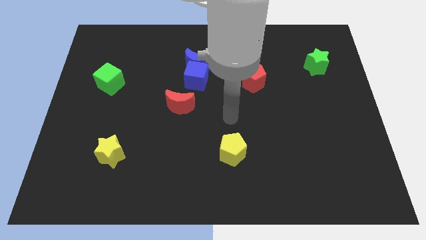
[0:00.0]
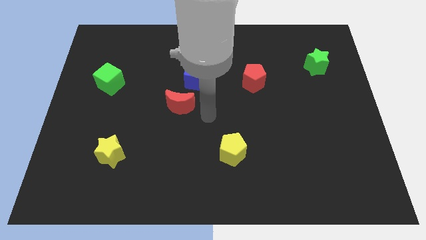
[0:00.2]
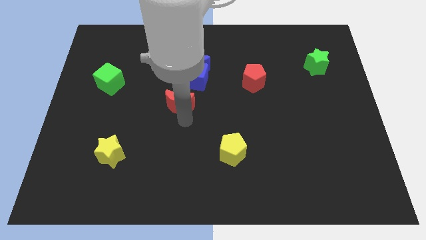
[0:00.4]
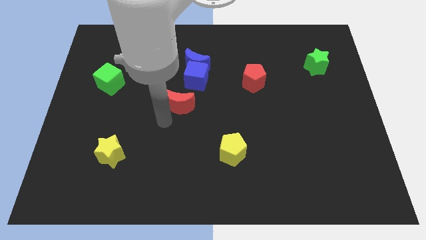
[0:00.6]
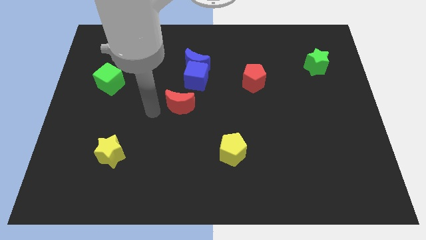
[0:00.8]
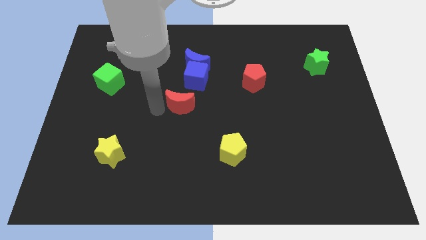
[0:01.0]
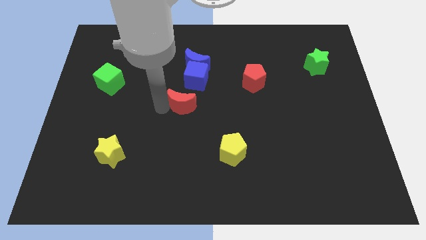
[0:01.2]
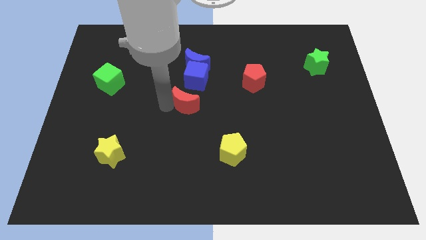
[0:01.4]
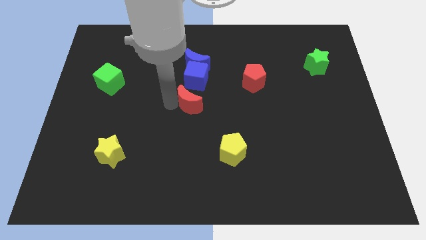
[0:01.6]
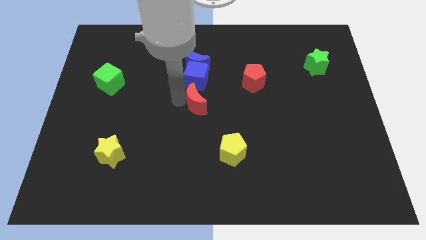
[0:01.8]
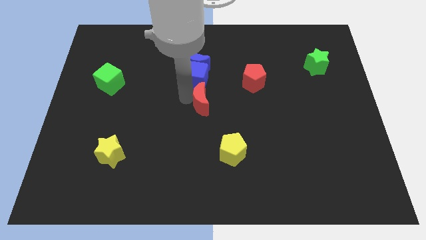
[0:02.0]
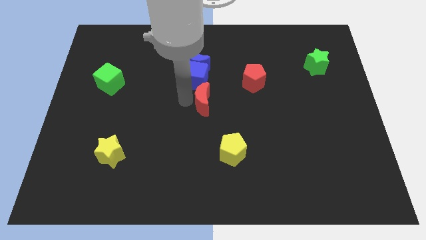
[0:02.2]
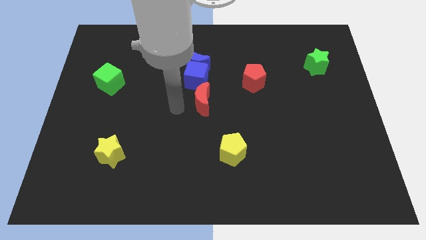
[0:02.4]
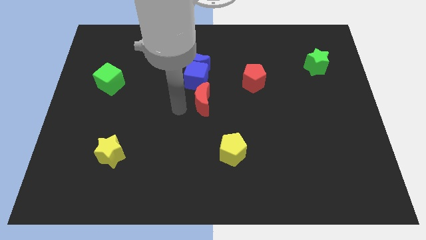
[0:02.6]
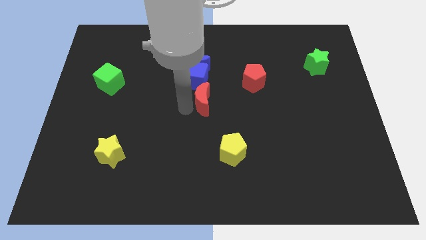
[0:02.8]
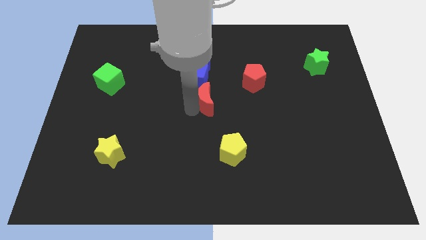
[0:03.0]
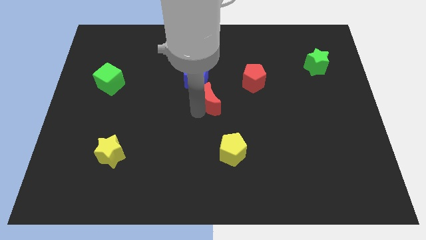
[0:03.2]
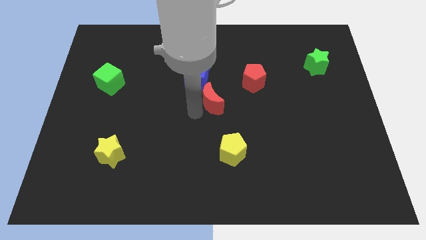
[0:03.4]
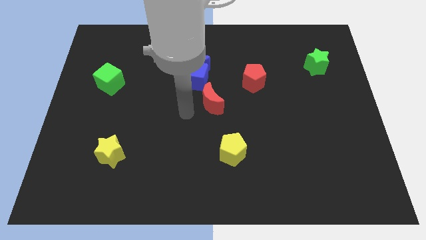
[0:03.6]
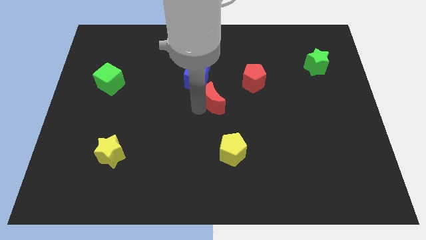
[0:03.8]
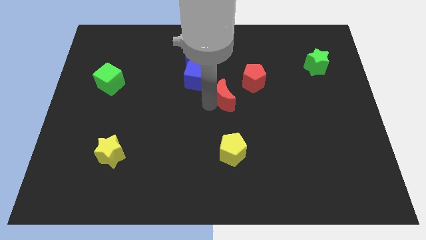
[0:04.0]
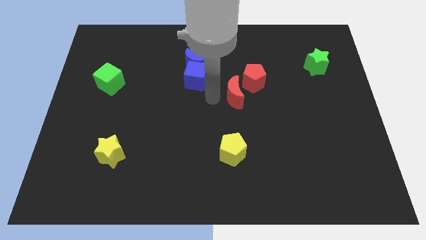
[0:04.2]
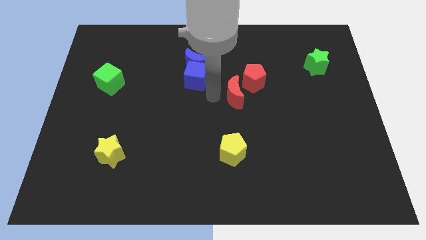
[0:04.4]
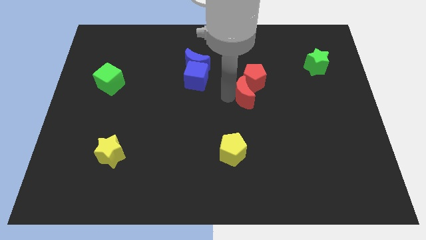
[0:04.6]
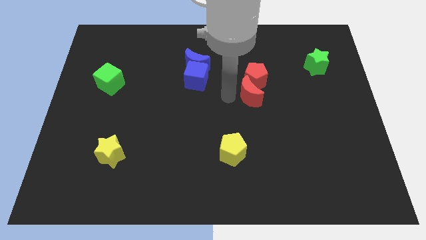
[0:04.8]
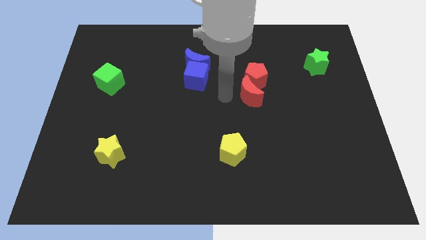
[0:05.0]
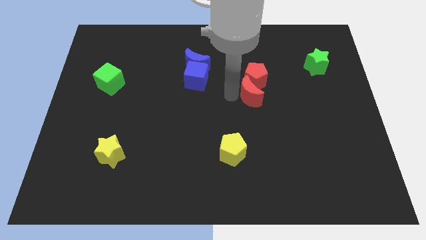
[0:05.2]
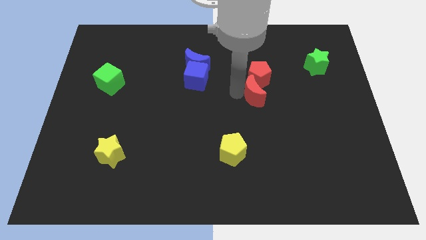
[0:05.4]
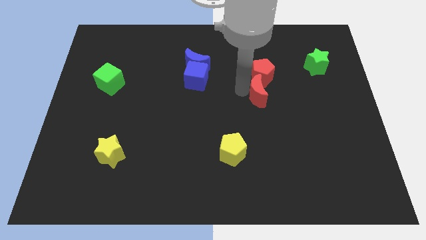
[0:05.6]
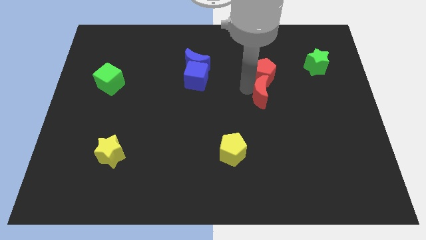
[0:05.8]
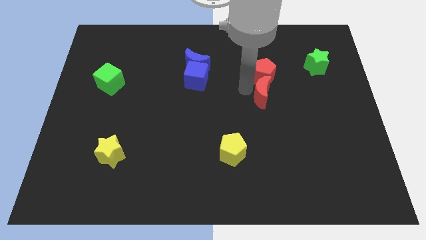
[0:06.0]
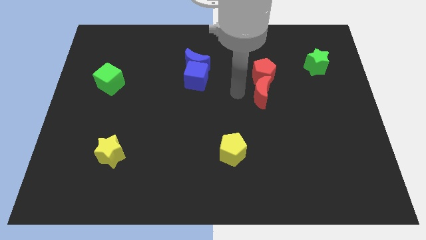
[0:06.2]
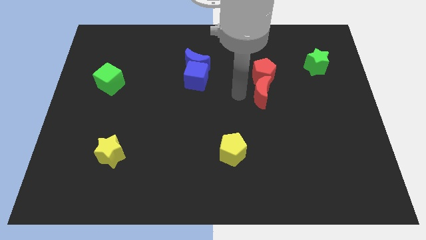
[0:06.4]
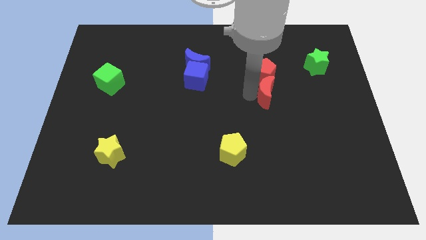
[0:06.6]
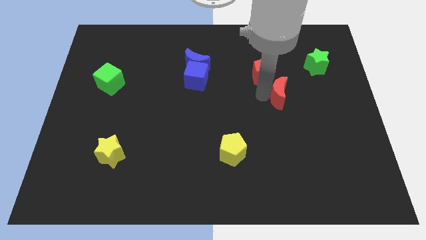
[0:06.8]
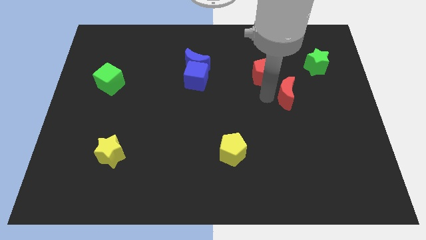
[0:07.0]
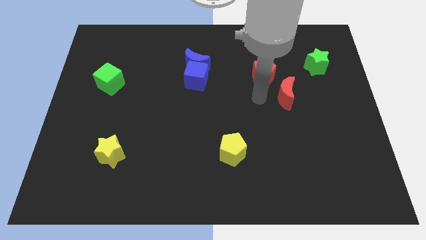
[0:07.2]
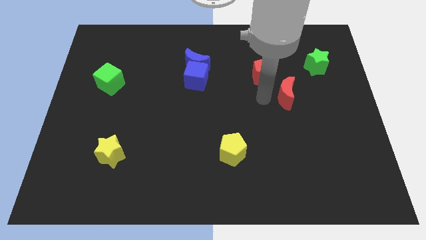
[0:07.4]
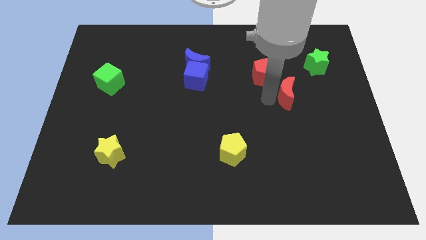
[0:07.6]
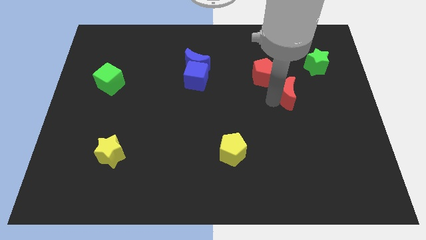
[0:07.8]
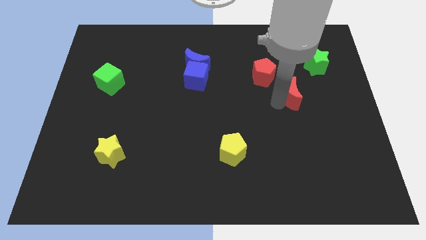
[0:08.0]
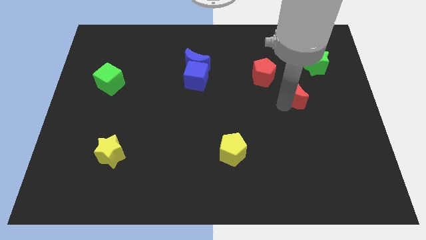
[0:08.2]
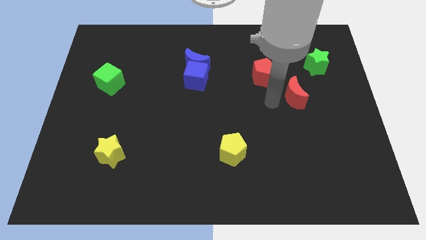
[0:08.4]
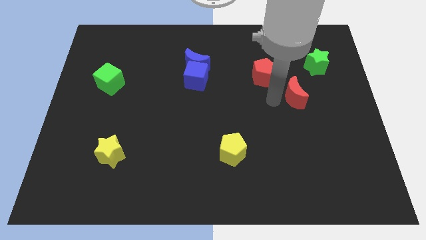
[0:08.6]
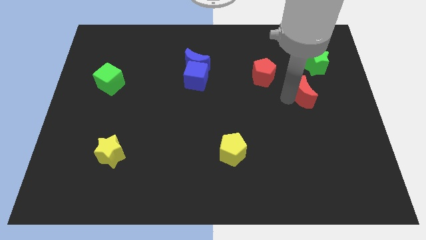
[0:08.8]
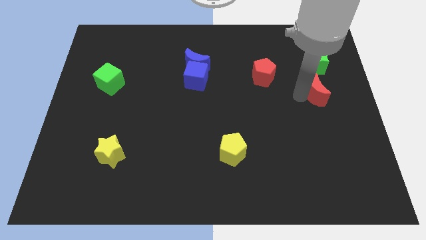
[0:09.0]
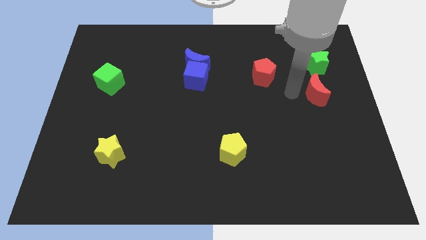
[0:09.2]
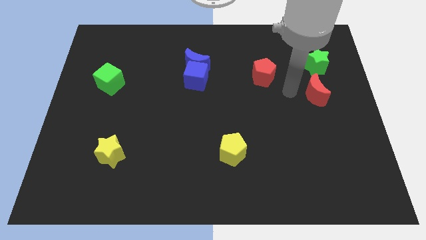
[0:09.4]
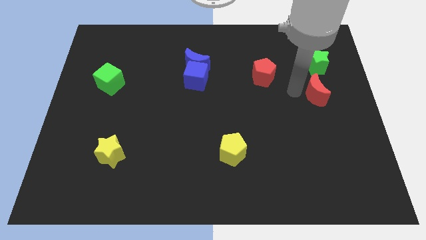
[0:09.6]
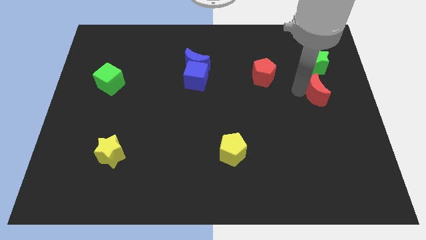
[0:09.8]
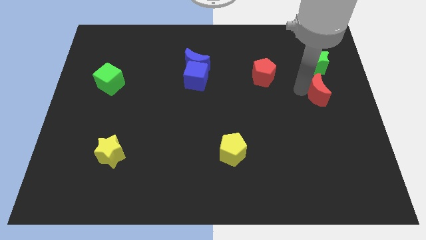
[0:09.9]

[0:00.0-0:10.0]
slide the red moon to the right side

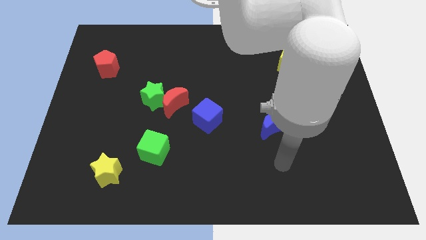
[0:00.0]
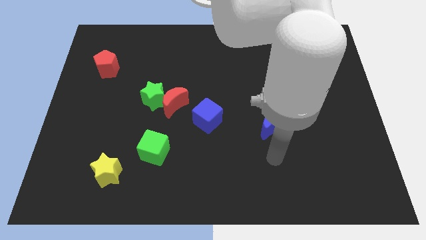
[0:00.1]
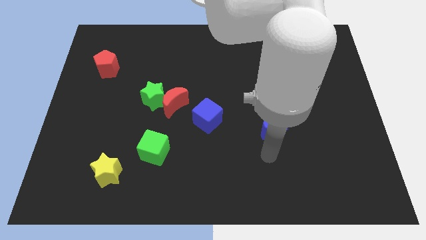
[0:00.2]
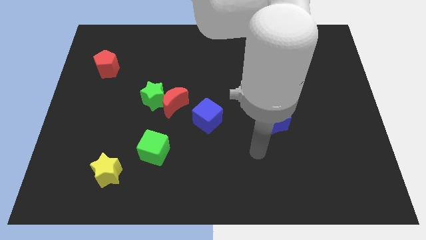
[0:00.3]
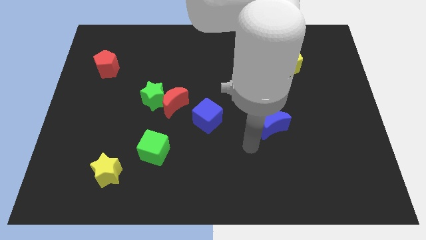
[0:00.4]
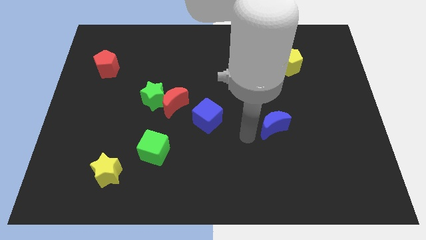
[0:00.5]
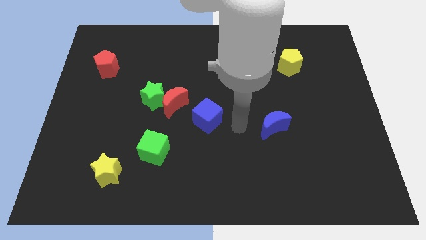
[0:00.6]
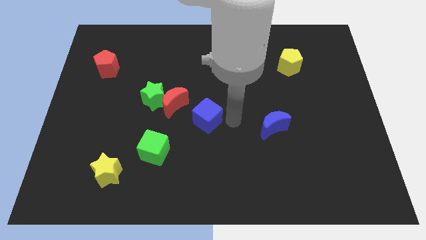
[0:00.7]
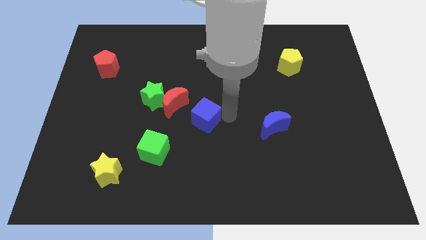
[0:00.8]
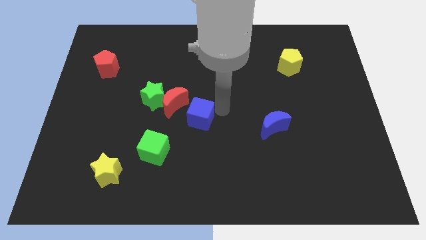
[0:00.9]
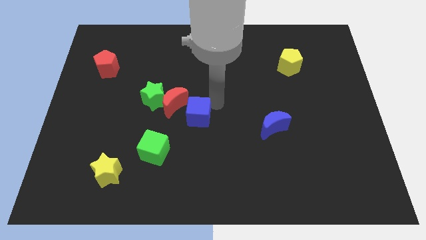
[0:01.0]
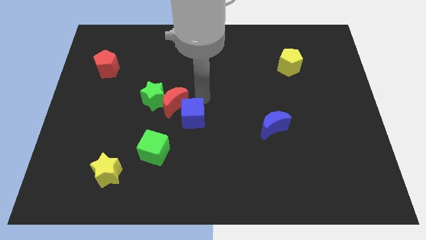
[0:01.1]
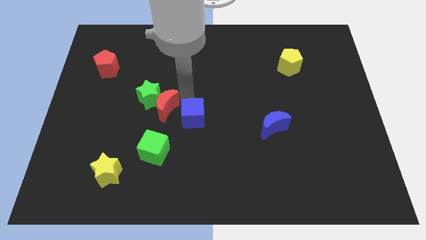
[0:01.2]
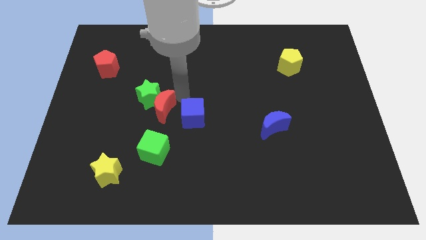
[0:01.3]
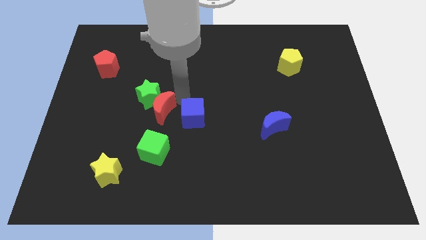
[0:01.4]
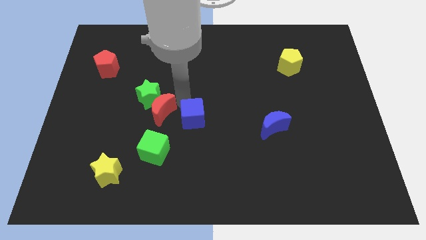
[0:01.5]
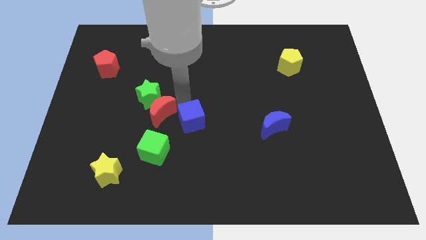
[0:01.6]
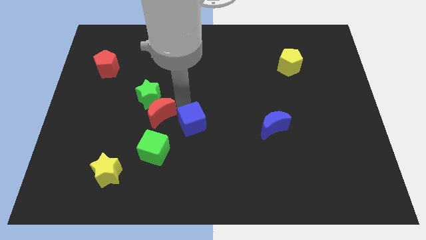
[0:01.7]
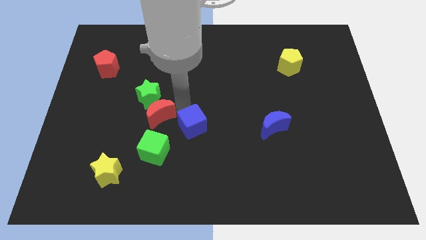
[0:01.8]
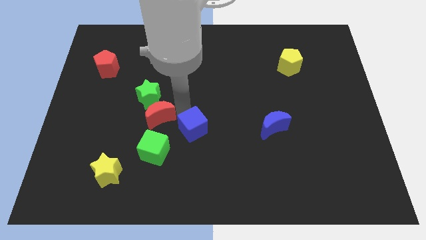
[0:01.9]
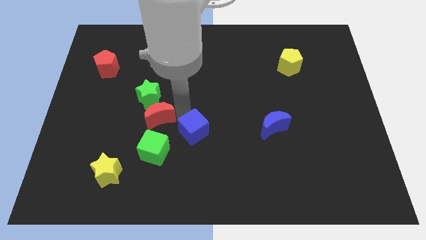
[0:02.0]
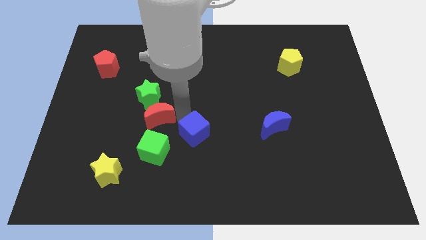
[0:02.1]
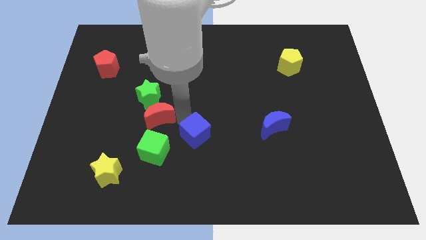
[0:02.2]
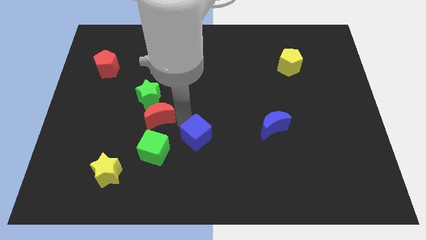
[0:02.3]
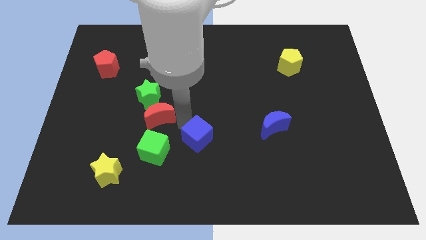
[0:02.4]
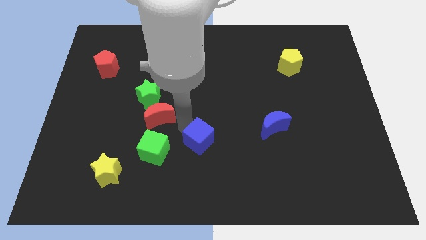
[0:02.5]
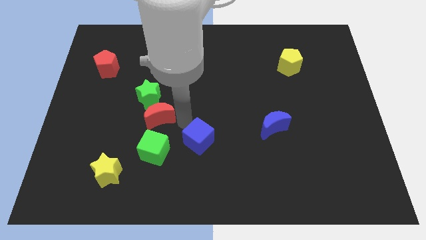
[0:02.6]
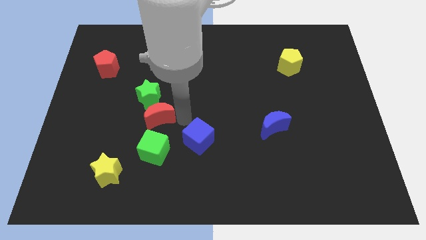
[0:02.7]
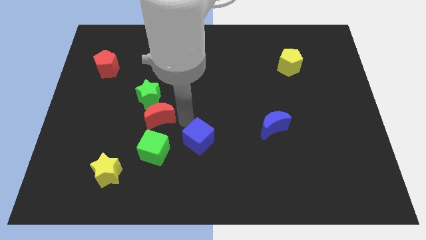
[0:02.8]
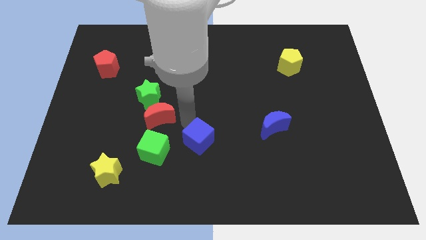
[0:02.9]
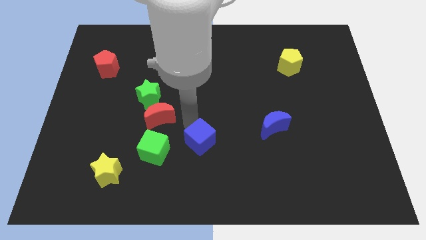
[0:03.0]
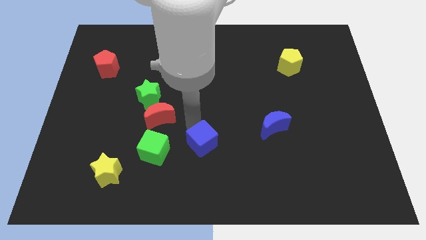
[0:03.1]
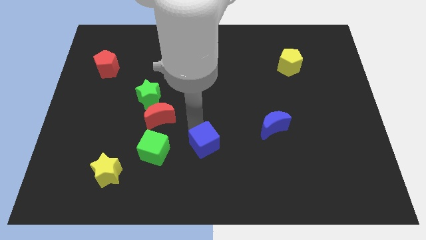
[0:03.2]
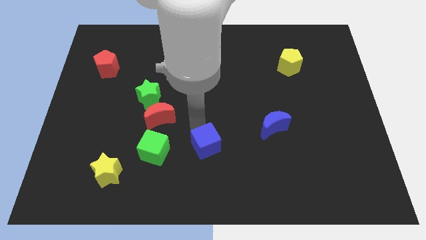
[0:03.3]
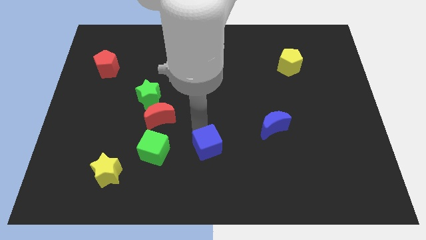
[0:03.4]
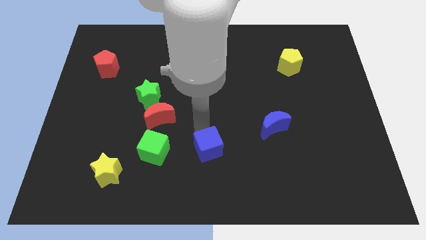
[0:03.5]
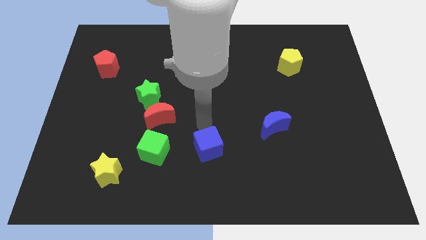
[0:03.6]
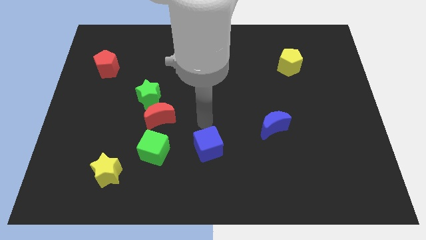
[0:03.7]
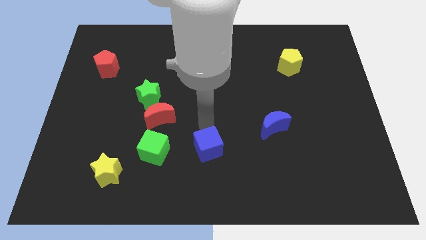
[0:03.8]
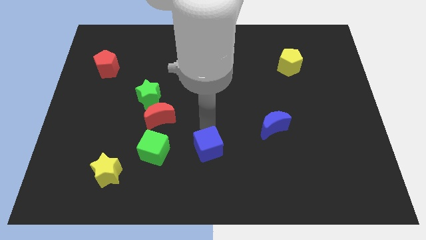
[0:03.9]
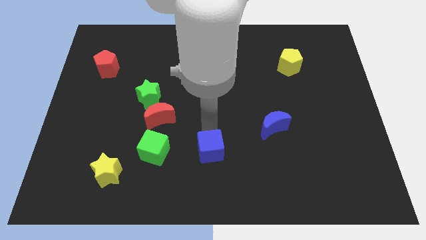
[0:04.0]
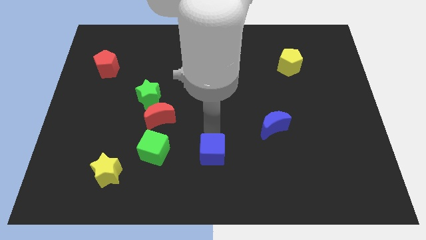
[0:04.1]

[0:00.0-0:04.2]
slide the blue cube to the bottom
